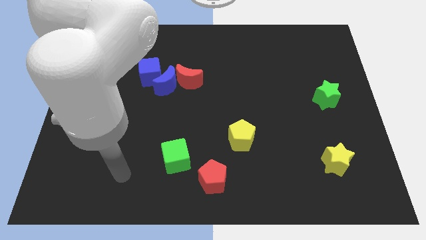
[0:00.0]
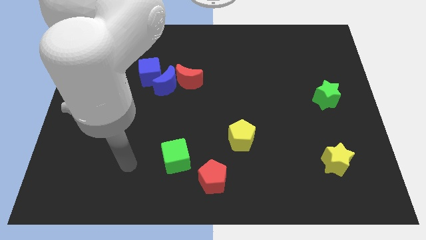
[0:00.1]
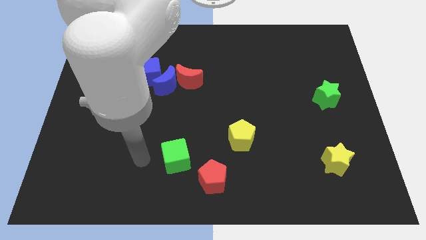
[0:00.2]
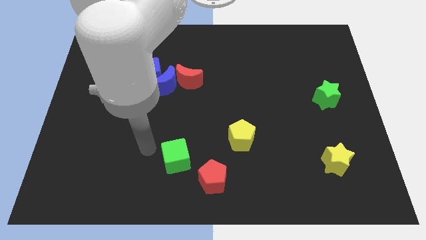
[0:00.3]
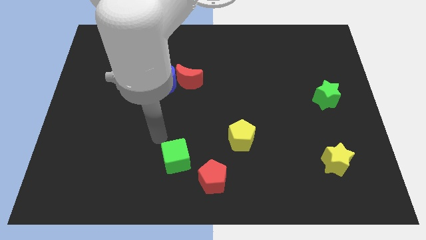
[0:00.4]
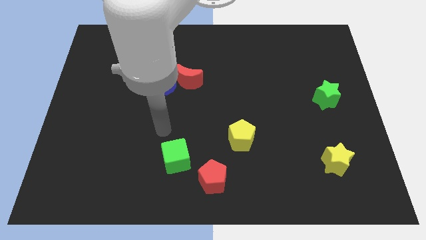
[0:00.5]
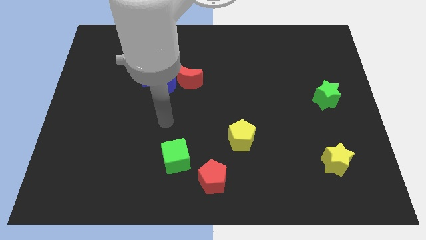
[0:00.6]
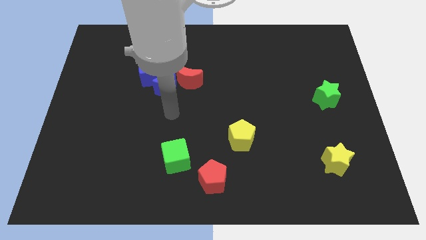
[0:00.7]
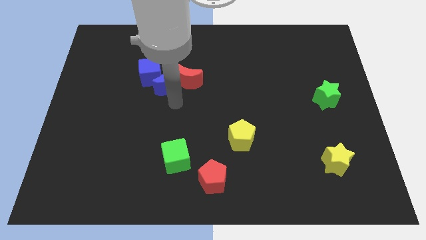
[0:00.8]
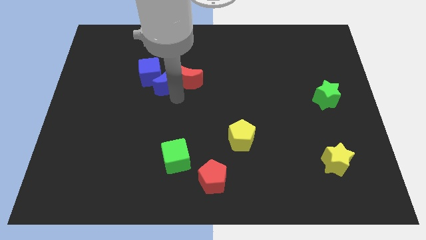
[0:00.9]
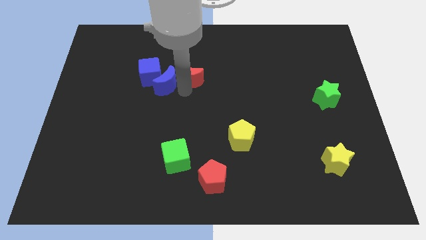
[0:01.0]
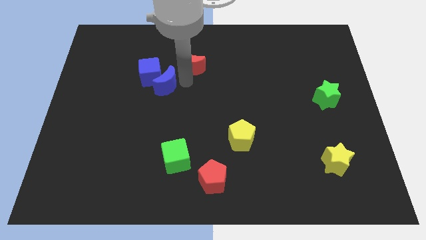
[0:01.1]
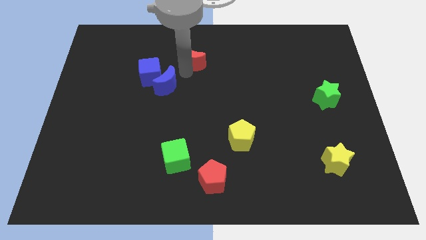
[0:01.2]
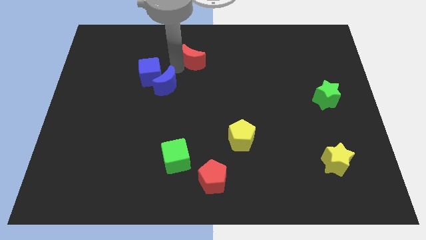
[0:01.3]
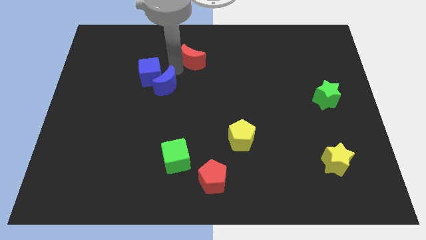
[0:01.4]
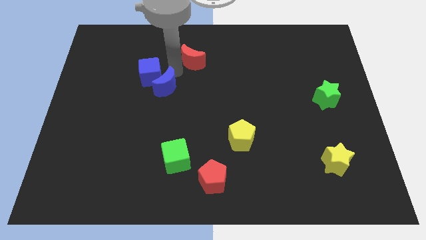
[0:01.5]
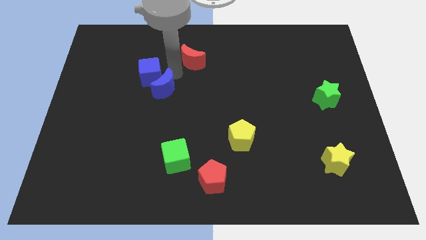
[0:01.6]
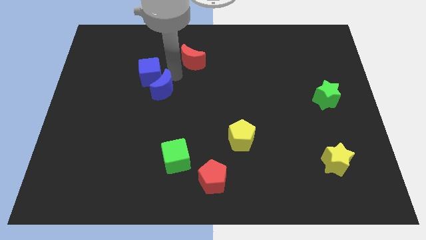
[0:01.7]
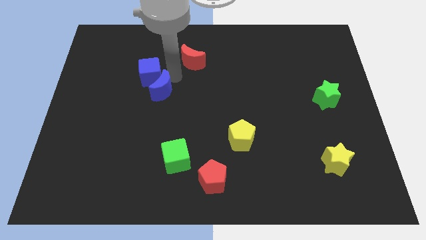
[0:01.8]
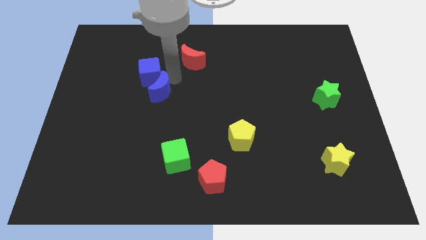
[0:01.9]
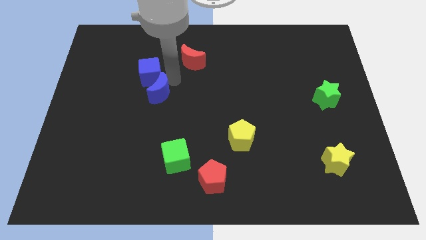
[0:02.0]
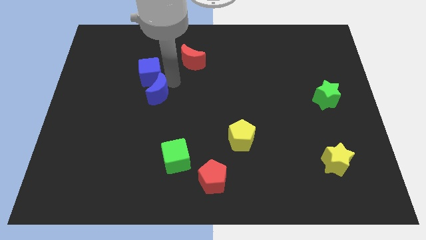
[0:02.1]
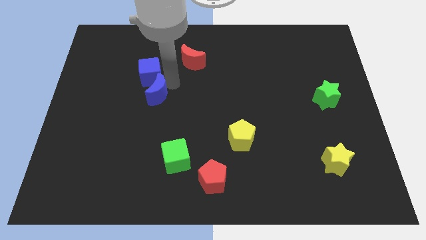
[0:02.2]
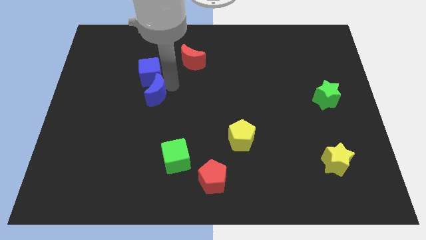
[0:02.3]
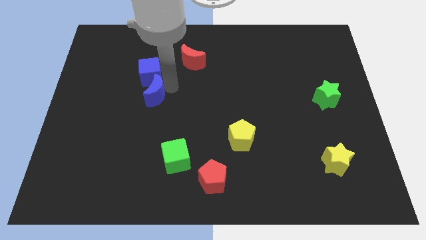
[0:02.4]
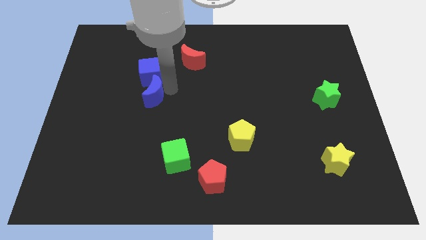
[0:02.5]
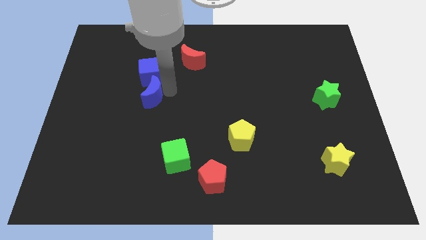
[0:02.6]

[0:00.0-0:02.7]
move the blue moon away from the red moon and blue cube

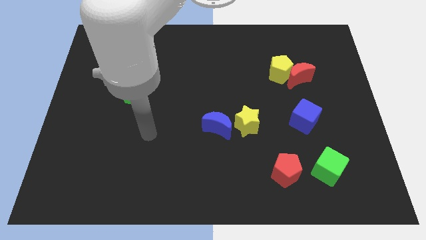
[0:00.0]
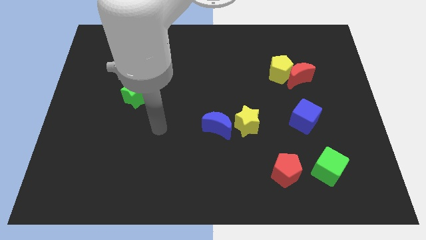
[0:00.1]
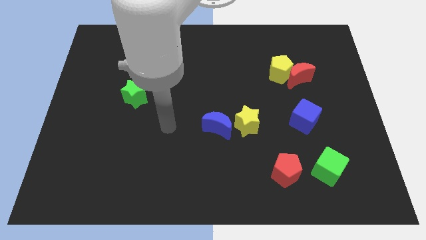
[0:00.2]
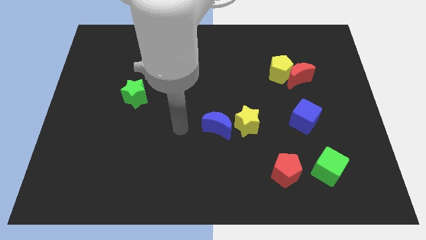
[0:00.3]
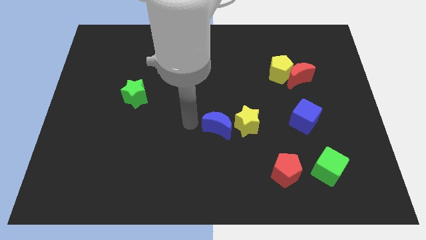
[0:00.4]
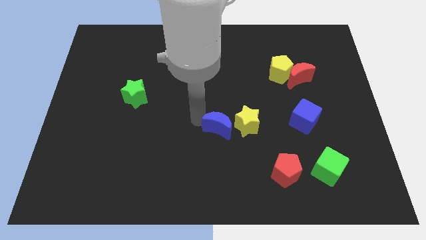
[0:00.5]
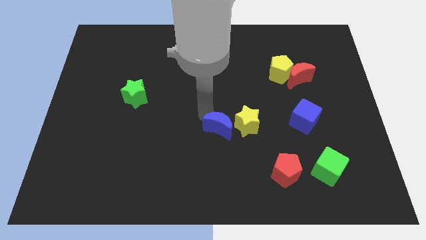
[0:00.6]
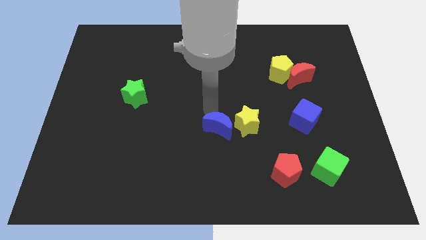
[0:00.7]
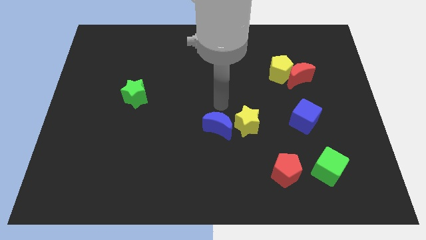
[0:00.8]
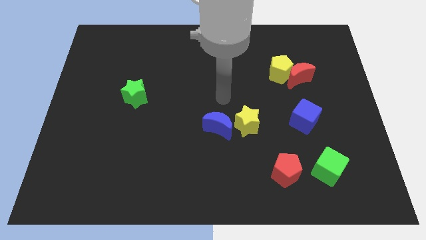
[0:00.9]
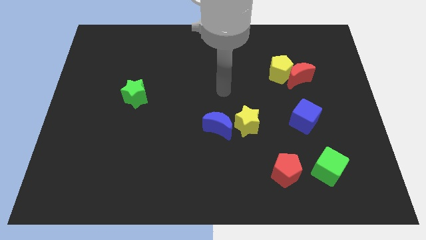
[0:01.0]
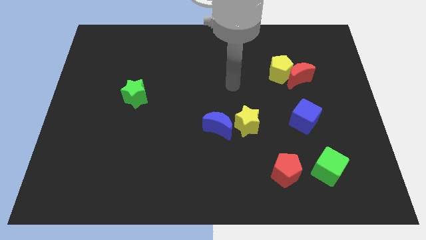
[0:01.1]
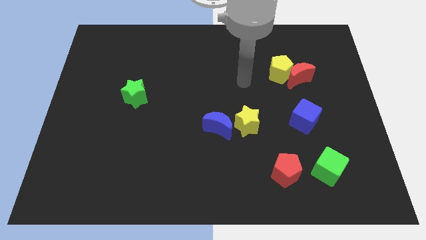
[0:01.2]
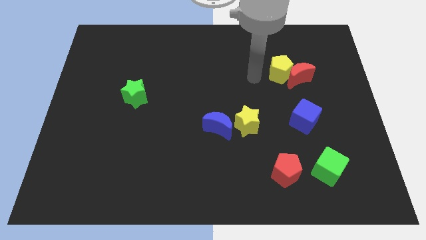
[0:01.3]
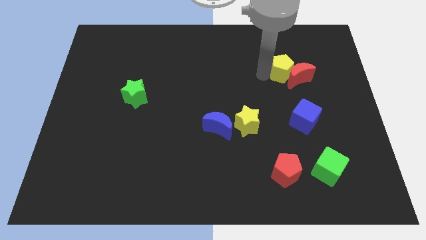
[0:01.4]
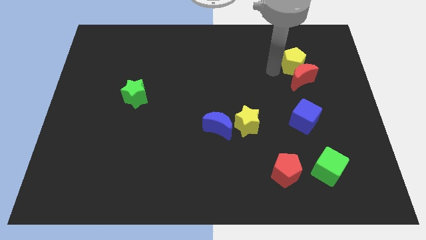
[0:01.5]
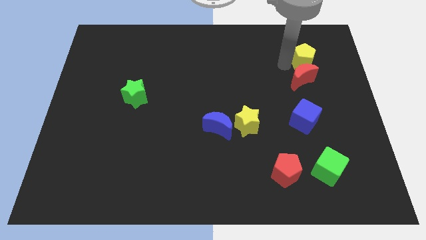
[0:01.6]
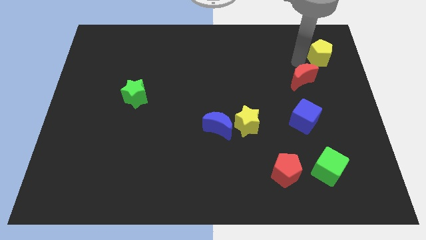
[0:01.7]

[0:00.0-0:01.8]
pull the red moon apart from the yellow pentagon

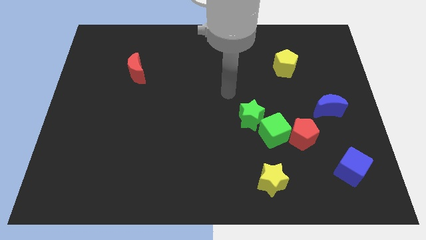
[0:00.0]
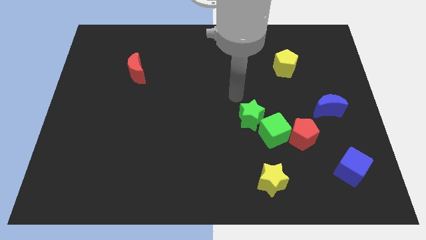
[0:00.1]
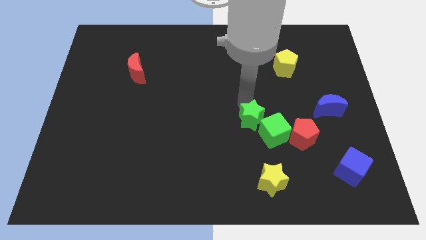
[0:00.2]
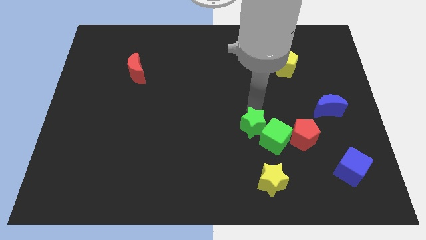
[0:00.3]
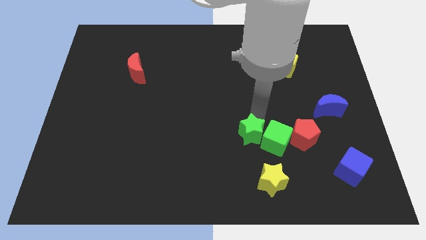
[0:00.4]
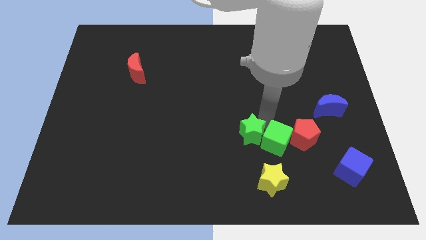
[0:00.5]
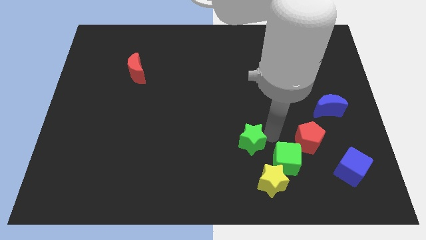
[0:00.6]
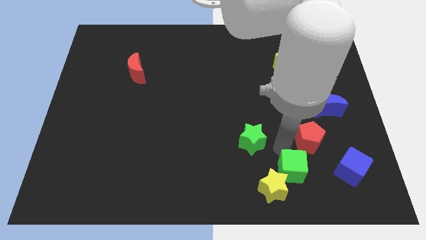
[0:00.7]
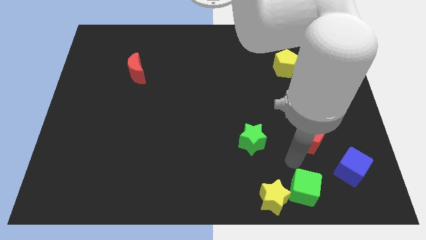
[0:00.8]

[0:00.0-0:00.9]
pull the red pentagon apart from the green cube

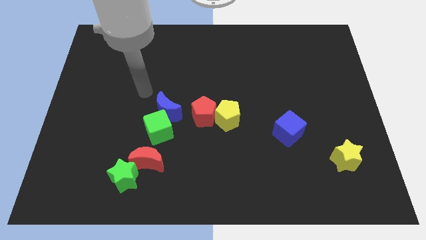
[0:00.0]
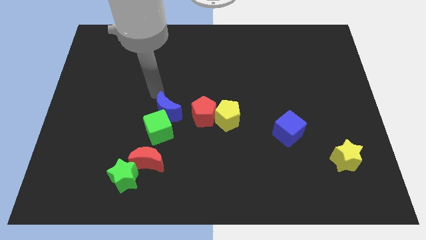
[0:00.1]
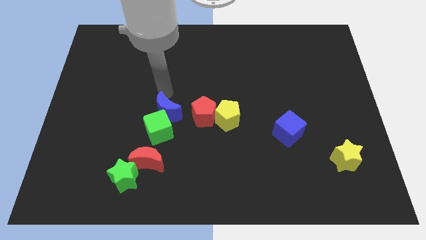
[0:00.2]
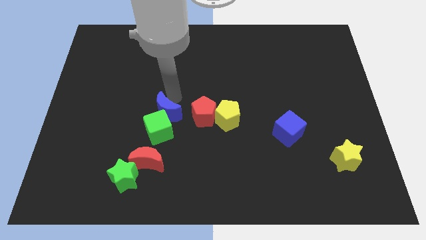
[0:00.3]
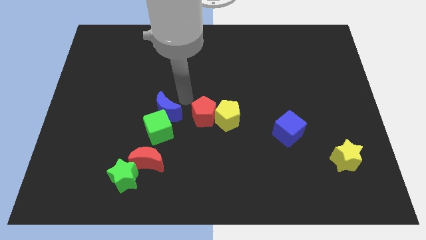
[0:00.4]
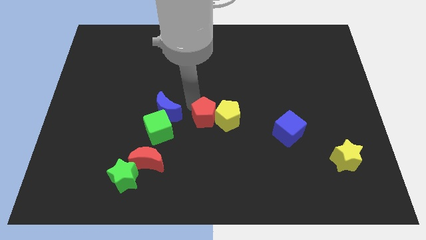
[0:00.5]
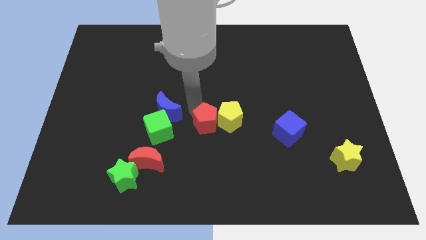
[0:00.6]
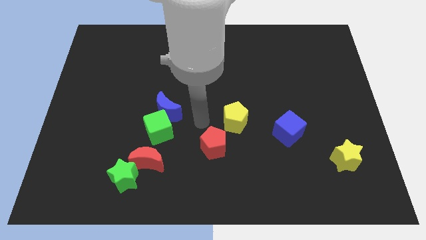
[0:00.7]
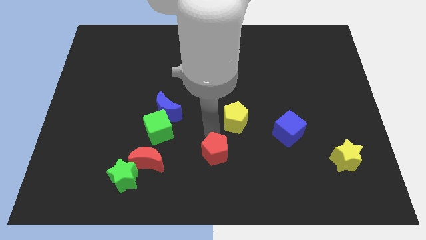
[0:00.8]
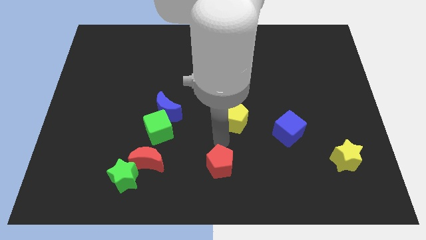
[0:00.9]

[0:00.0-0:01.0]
pull the yellow pentagon apart from the red pentagon

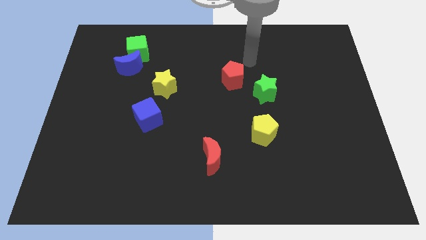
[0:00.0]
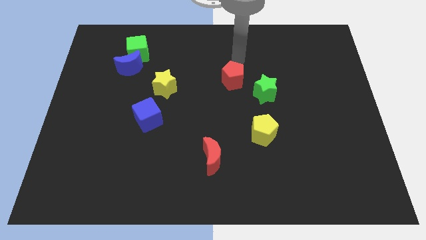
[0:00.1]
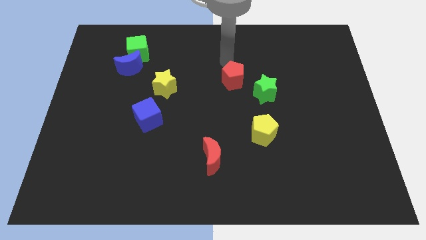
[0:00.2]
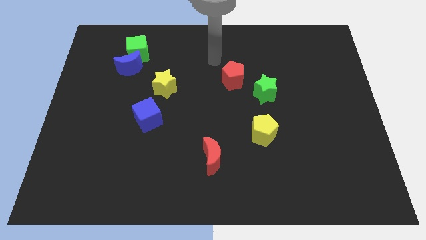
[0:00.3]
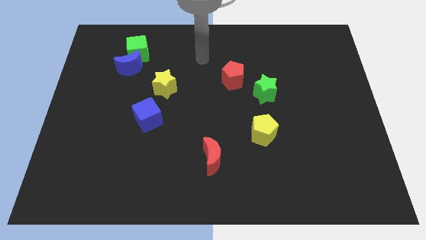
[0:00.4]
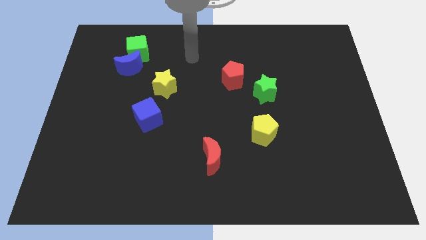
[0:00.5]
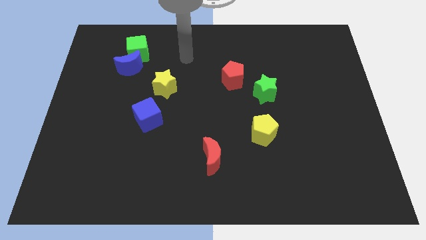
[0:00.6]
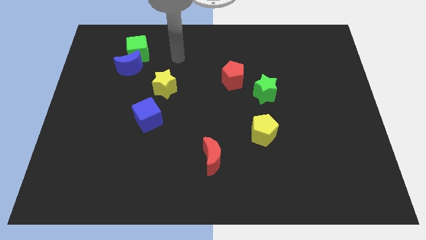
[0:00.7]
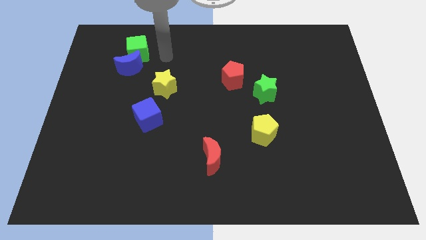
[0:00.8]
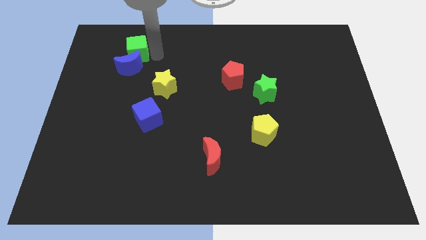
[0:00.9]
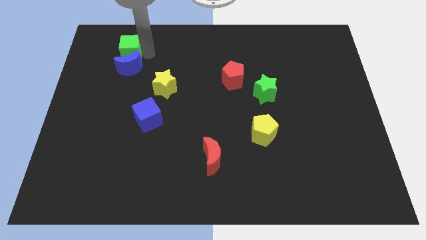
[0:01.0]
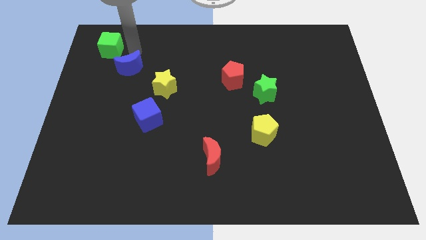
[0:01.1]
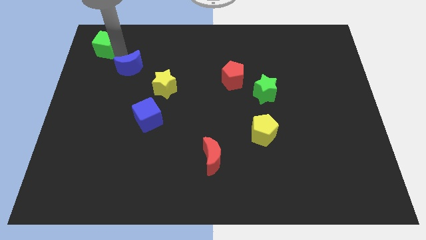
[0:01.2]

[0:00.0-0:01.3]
separate the blue moon from the green cube

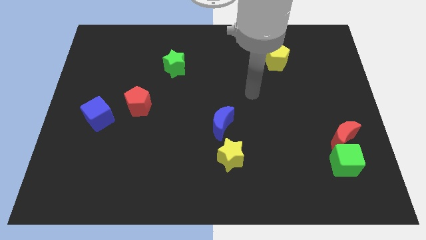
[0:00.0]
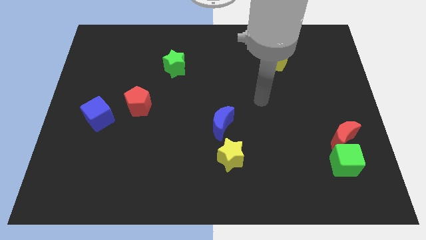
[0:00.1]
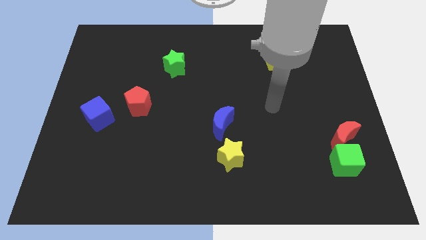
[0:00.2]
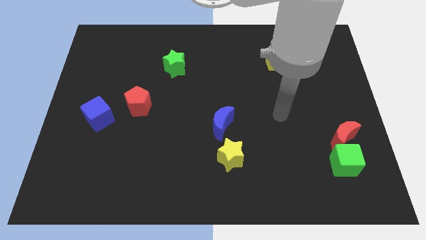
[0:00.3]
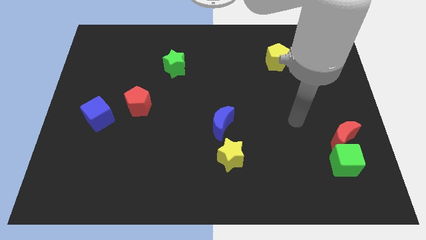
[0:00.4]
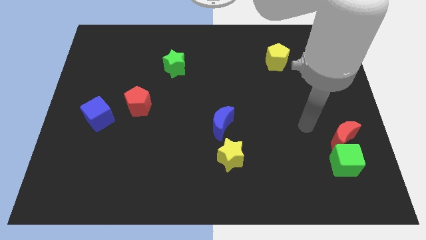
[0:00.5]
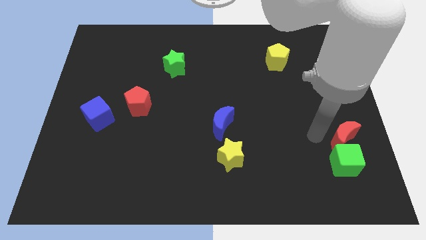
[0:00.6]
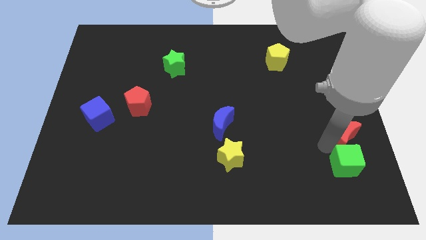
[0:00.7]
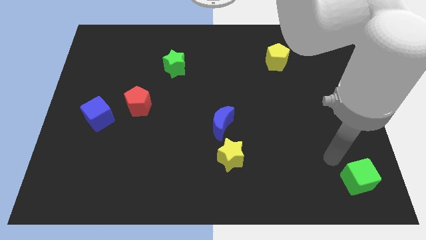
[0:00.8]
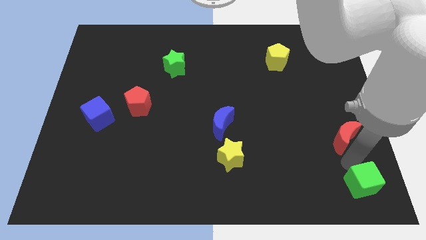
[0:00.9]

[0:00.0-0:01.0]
move the red moon away from the green cube

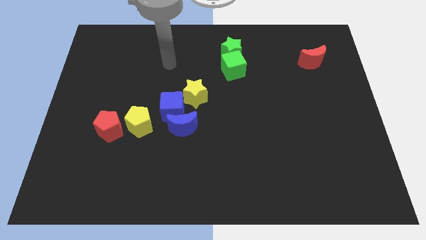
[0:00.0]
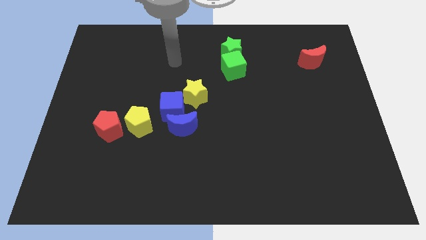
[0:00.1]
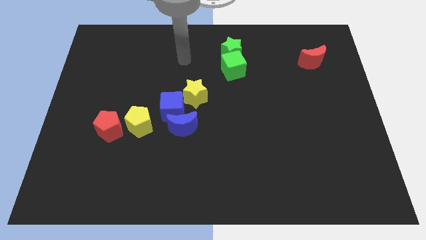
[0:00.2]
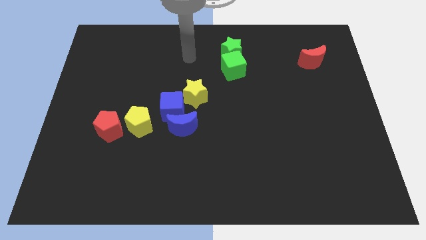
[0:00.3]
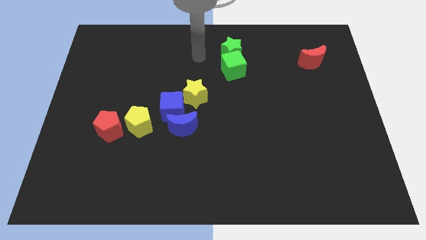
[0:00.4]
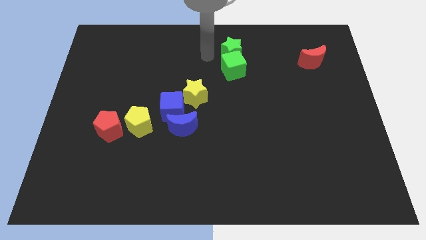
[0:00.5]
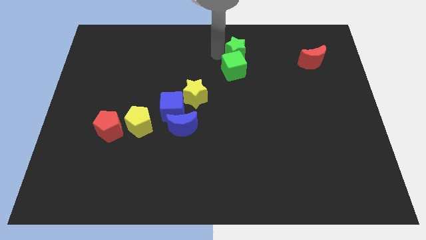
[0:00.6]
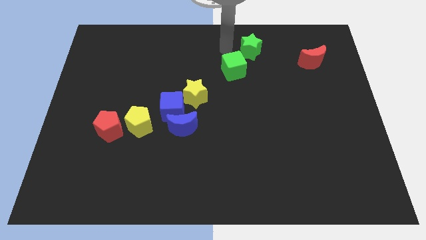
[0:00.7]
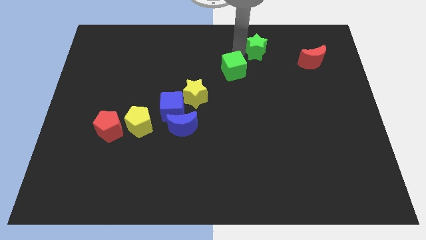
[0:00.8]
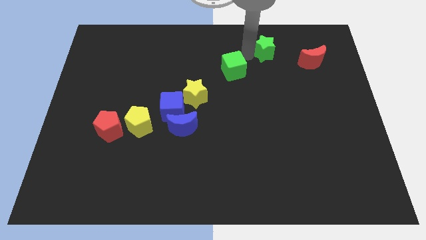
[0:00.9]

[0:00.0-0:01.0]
pull the green cube apart from the green star
